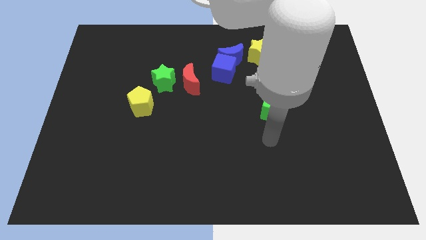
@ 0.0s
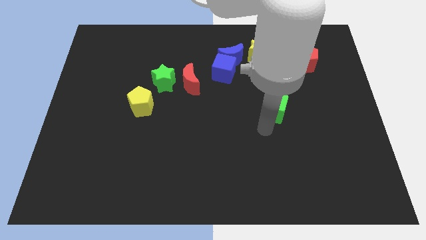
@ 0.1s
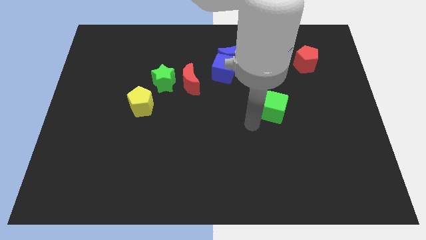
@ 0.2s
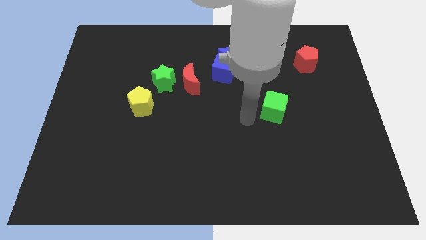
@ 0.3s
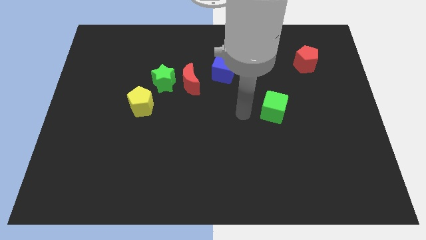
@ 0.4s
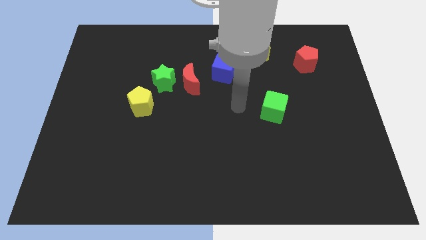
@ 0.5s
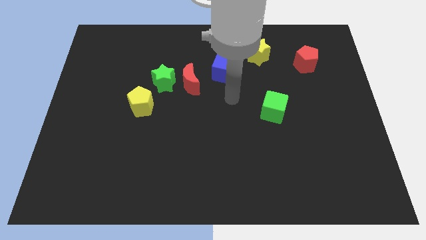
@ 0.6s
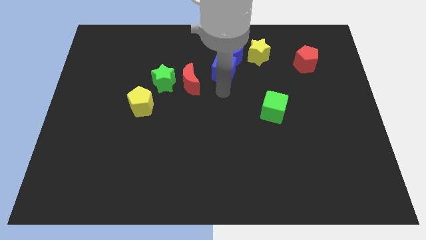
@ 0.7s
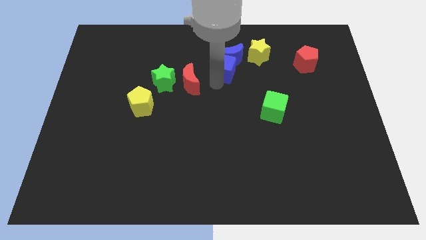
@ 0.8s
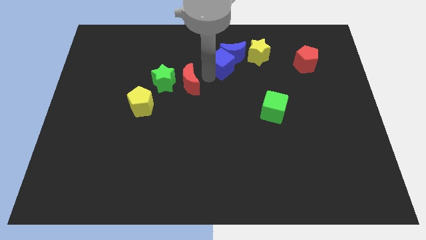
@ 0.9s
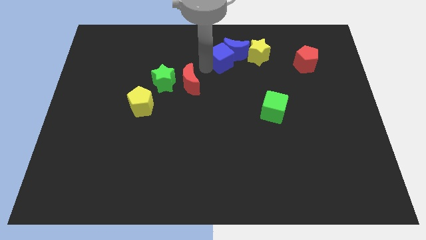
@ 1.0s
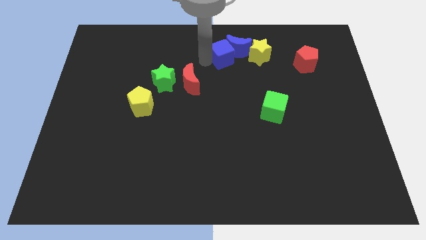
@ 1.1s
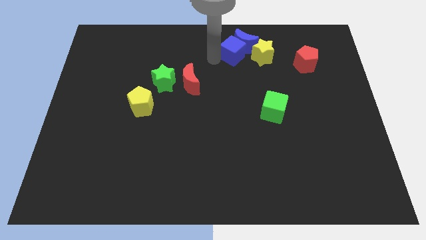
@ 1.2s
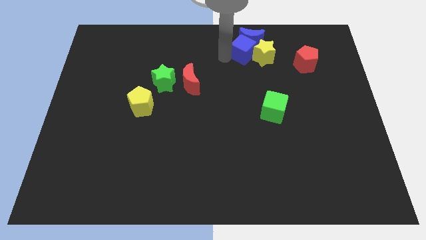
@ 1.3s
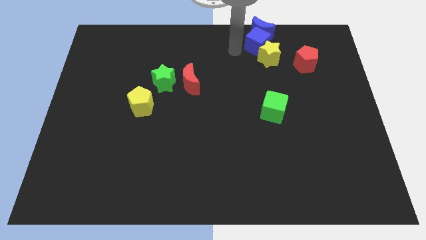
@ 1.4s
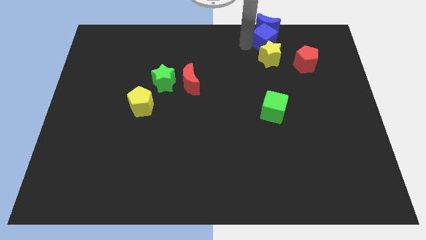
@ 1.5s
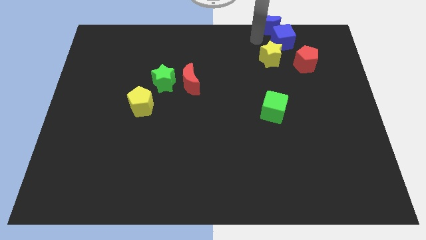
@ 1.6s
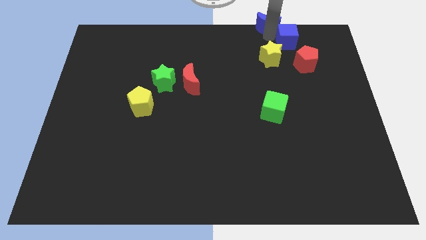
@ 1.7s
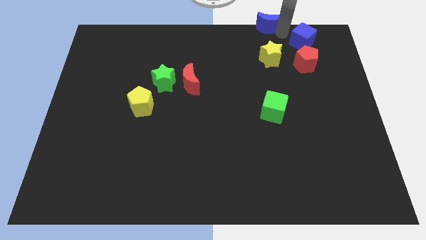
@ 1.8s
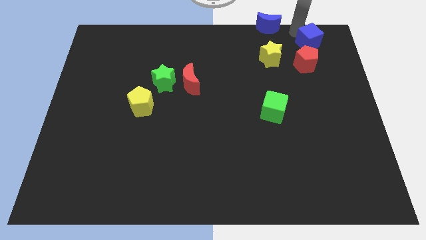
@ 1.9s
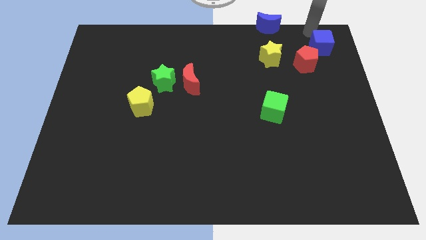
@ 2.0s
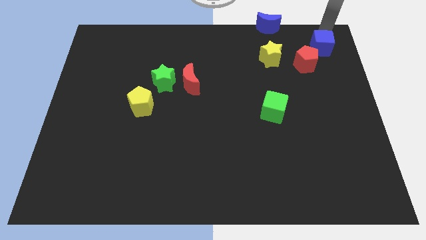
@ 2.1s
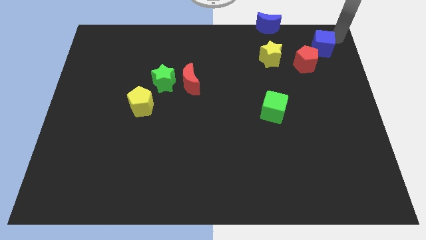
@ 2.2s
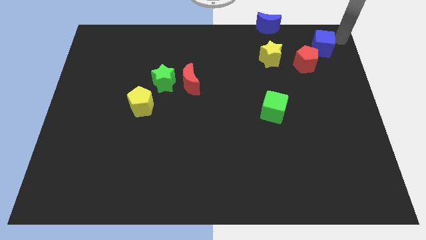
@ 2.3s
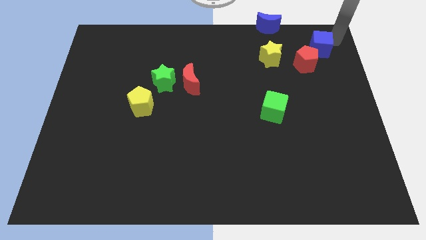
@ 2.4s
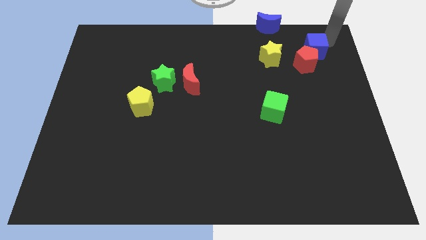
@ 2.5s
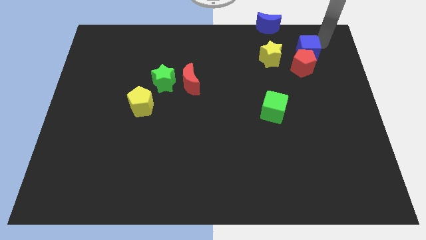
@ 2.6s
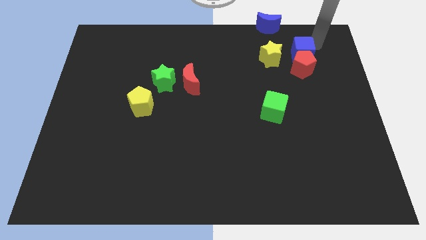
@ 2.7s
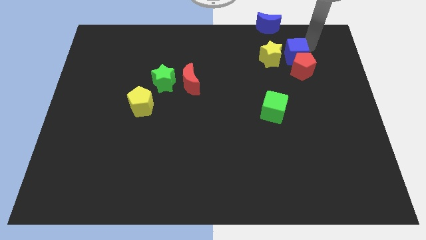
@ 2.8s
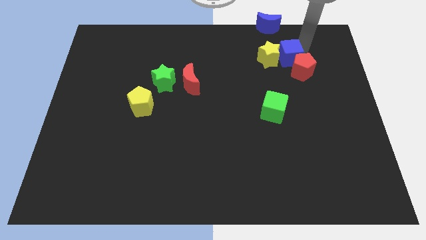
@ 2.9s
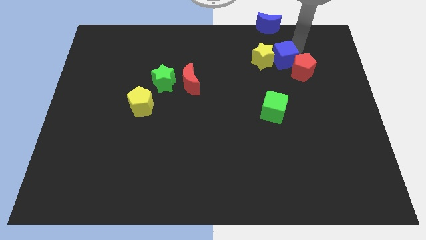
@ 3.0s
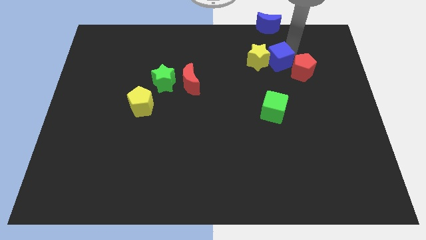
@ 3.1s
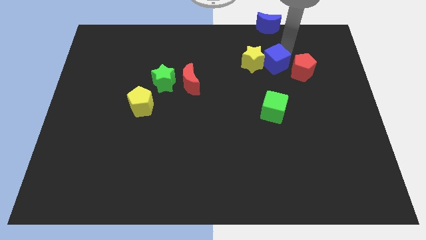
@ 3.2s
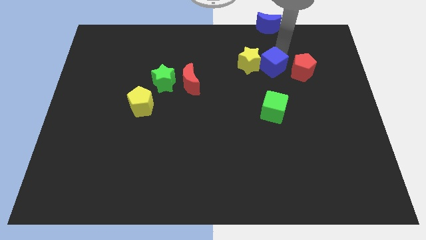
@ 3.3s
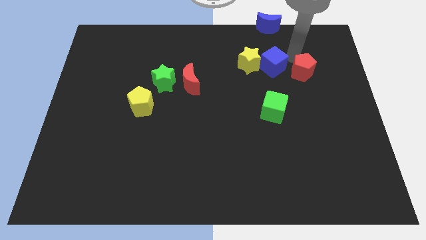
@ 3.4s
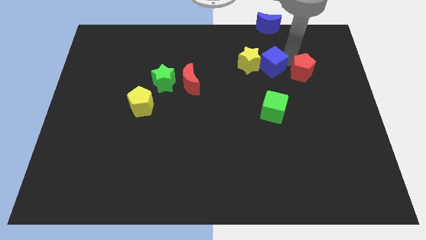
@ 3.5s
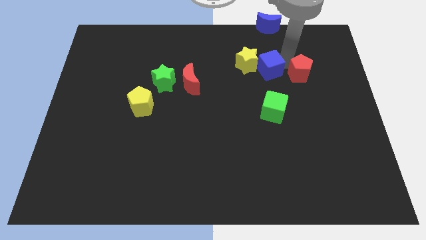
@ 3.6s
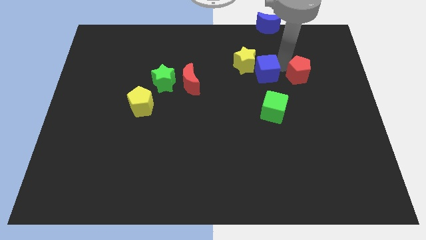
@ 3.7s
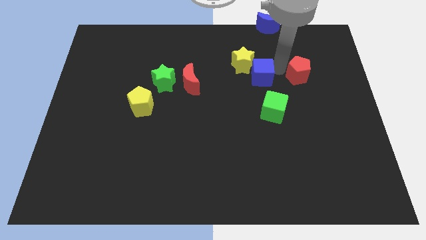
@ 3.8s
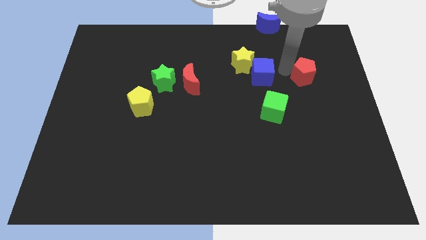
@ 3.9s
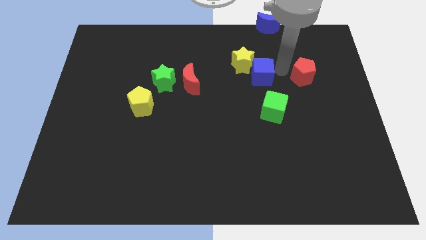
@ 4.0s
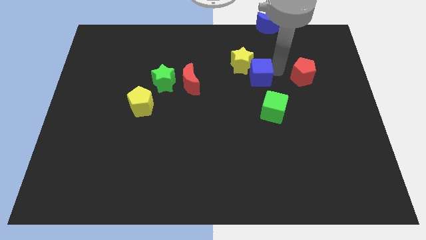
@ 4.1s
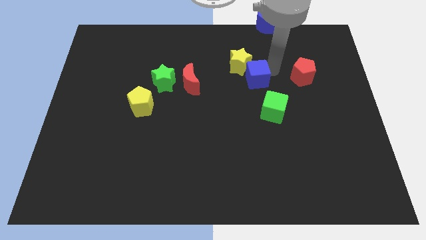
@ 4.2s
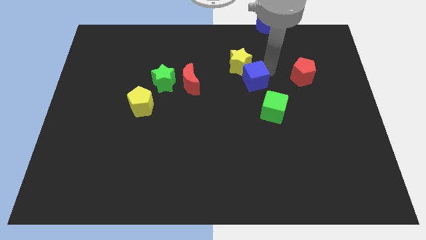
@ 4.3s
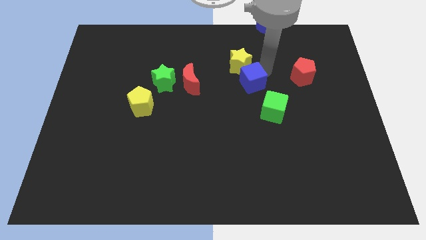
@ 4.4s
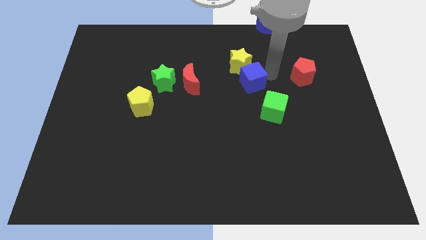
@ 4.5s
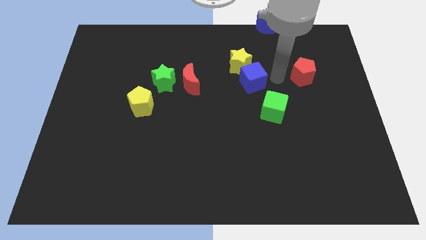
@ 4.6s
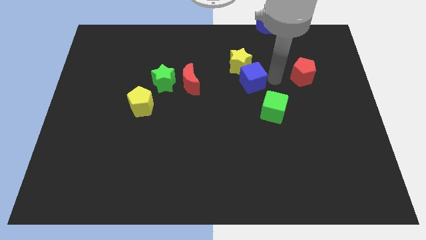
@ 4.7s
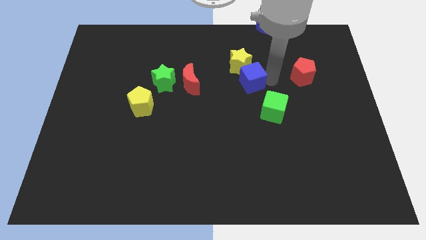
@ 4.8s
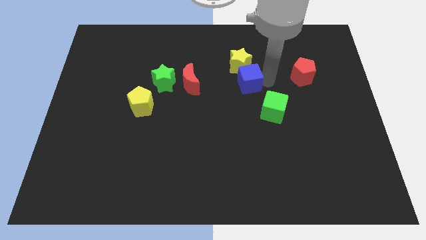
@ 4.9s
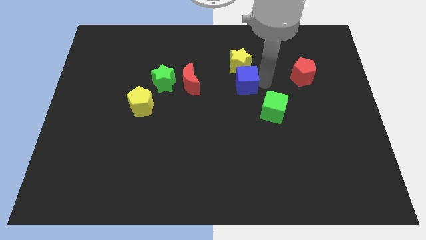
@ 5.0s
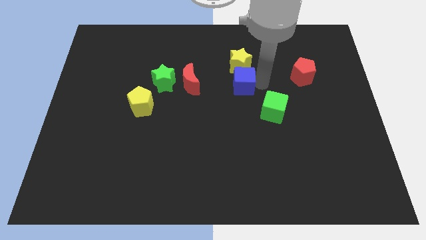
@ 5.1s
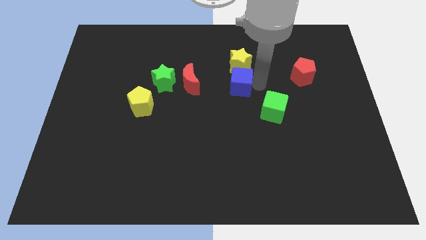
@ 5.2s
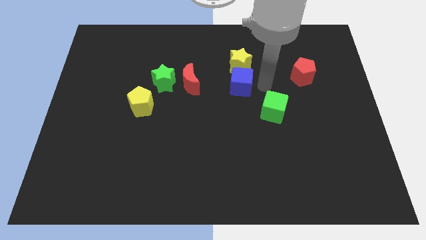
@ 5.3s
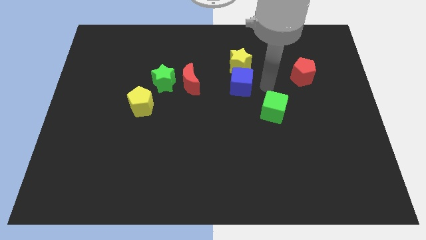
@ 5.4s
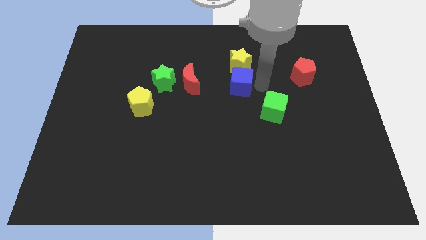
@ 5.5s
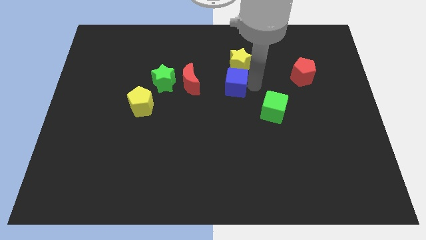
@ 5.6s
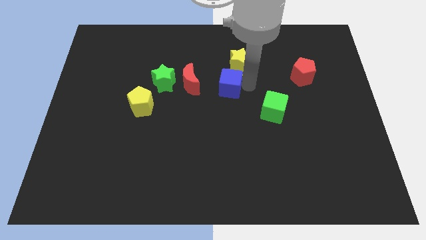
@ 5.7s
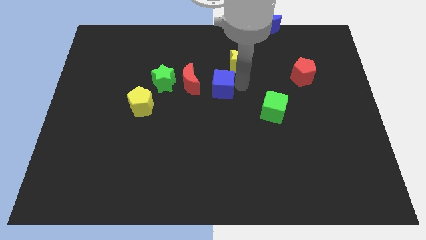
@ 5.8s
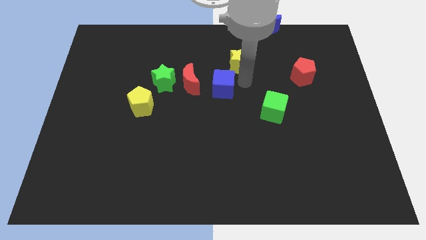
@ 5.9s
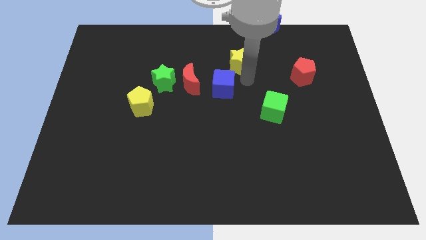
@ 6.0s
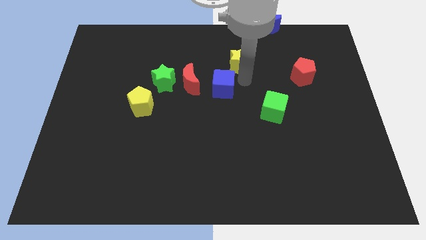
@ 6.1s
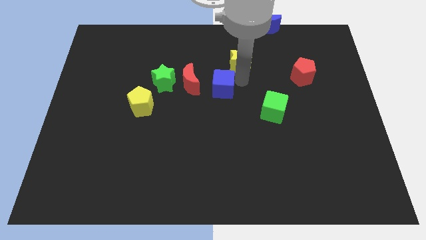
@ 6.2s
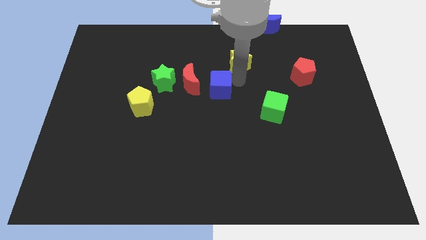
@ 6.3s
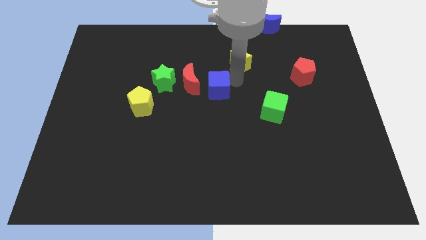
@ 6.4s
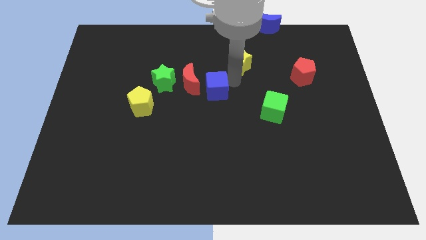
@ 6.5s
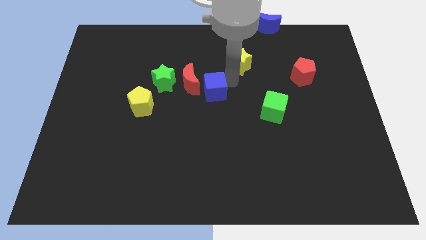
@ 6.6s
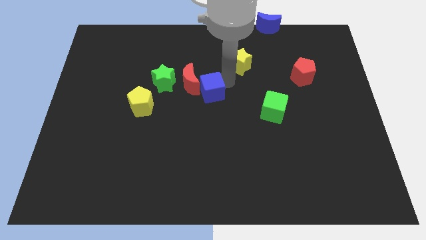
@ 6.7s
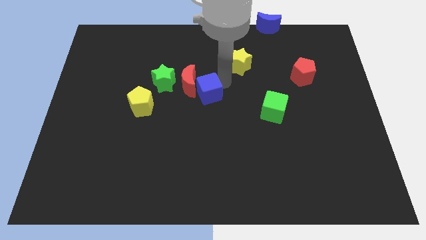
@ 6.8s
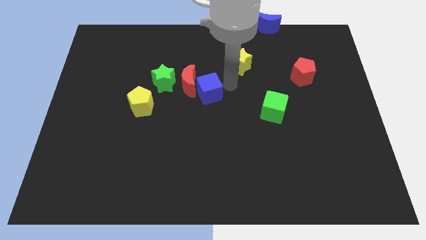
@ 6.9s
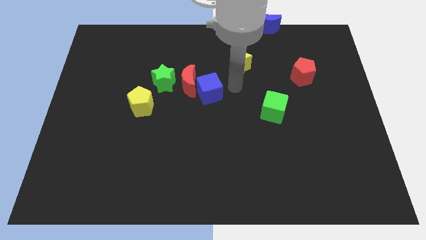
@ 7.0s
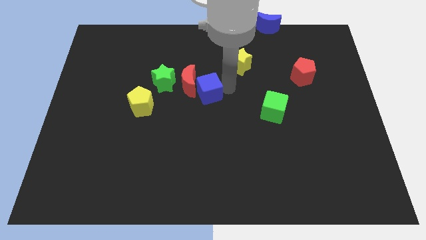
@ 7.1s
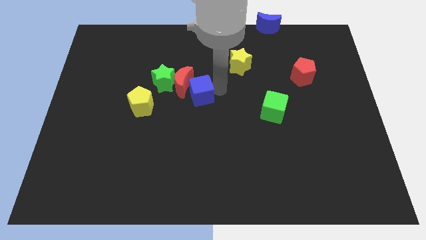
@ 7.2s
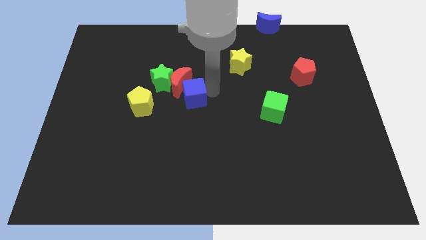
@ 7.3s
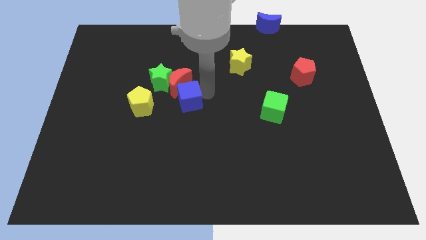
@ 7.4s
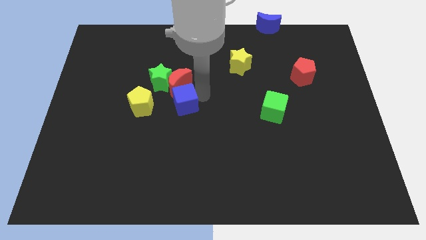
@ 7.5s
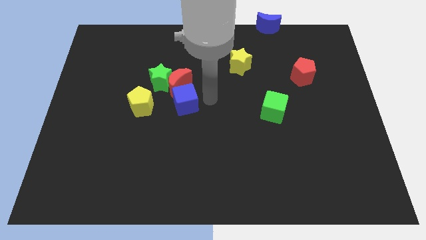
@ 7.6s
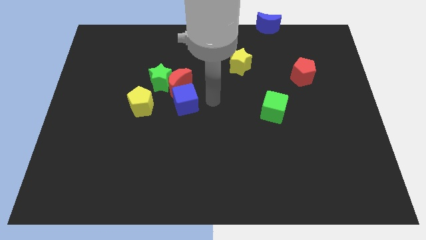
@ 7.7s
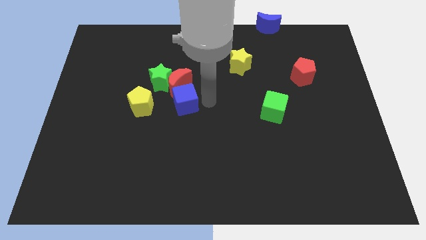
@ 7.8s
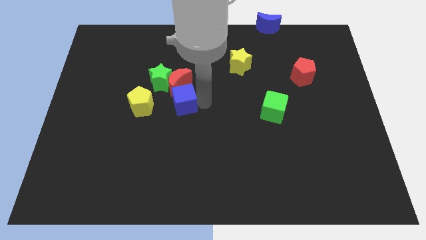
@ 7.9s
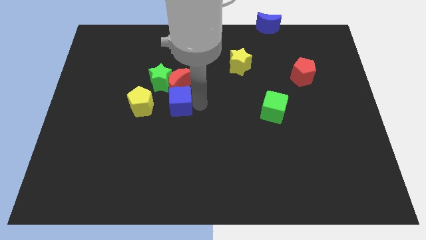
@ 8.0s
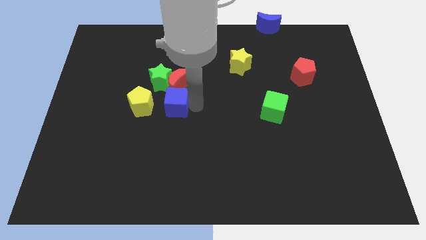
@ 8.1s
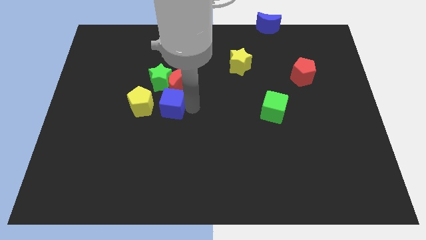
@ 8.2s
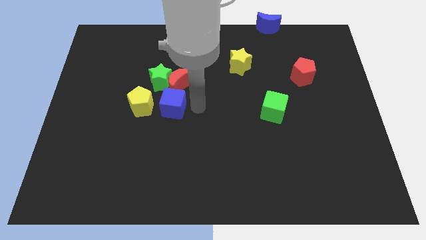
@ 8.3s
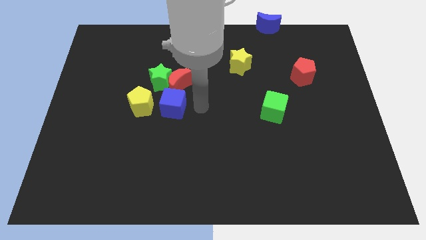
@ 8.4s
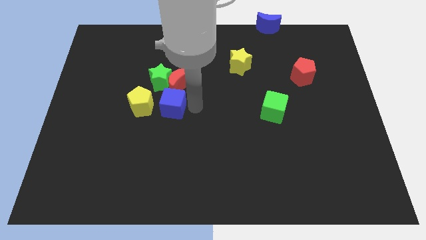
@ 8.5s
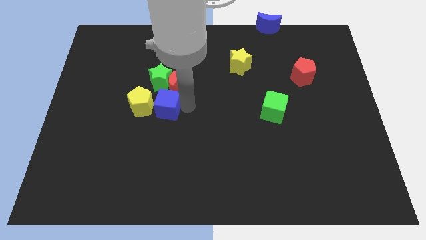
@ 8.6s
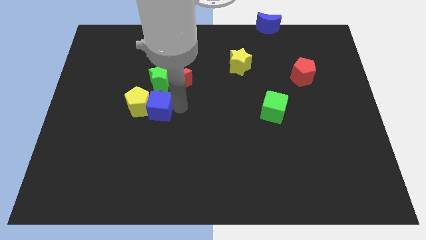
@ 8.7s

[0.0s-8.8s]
move the blue cube close to the yellow pentagon
